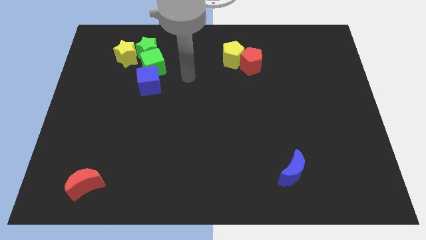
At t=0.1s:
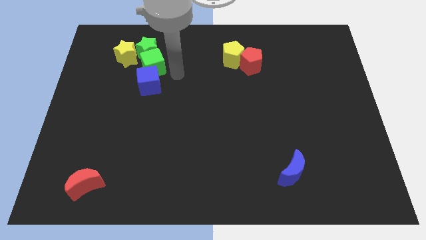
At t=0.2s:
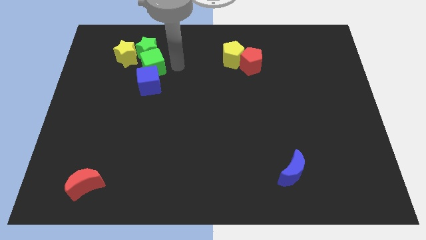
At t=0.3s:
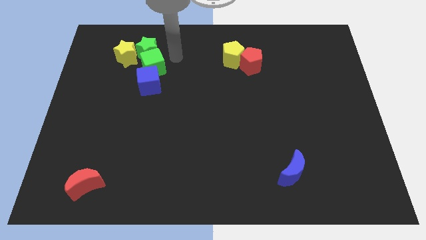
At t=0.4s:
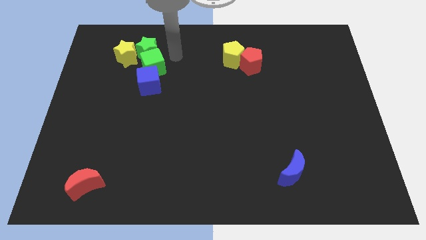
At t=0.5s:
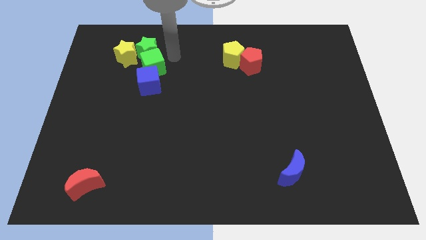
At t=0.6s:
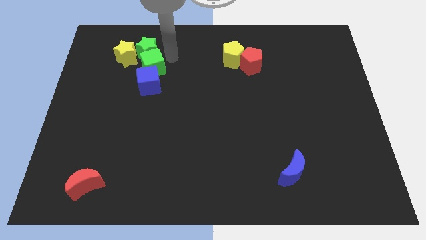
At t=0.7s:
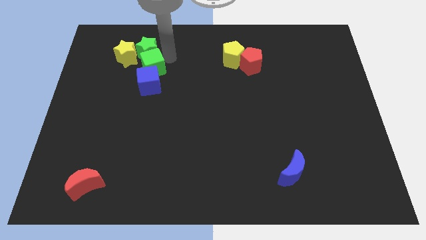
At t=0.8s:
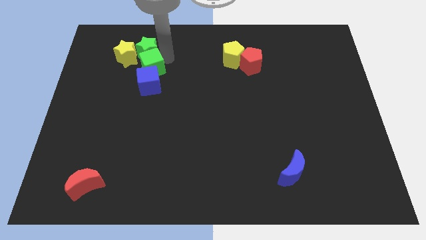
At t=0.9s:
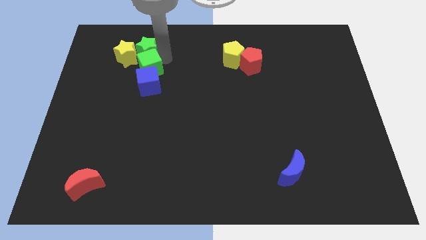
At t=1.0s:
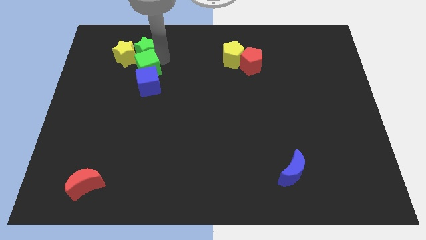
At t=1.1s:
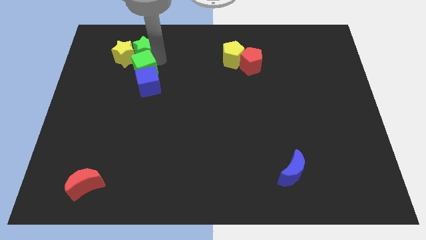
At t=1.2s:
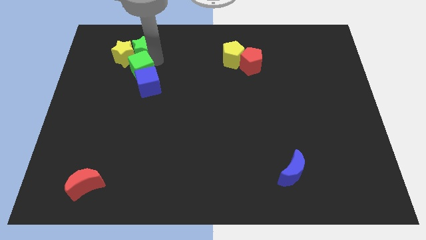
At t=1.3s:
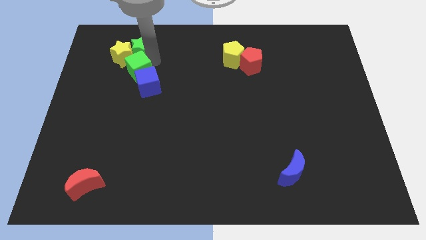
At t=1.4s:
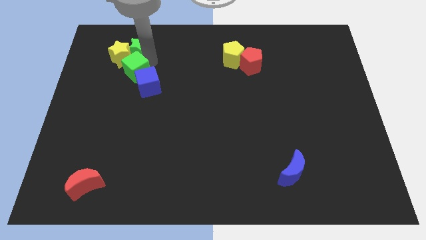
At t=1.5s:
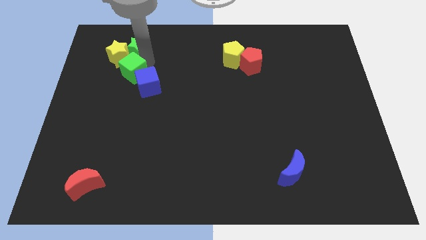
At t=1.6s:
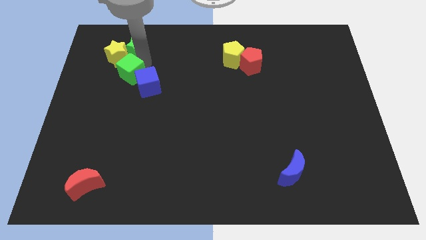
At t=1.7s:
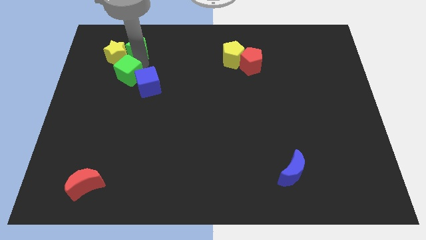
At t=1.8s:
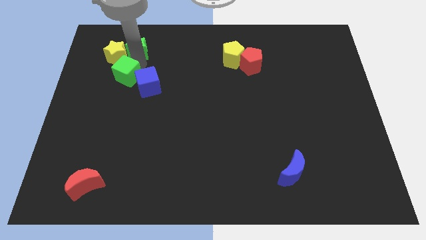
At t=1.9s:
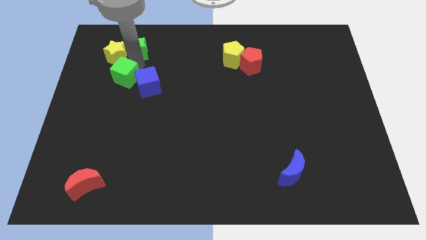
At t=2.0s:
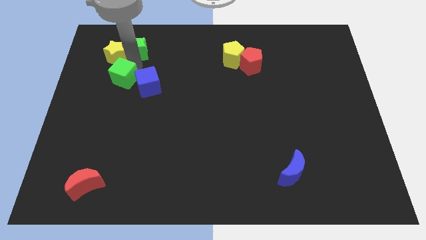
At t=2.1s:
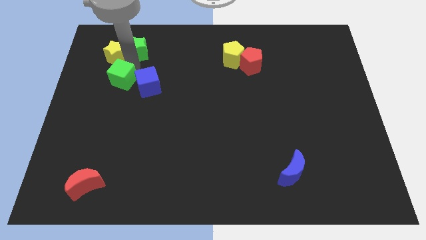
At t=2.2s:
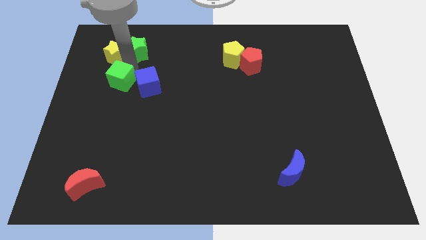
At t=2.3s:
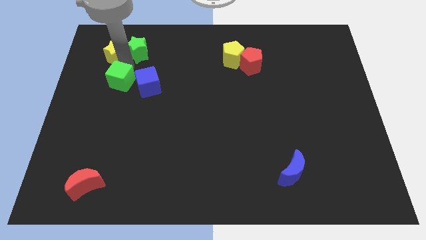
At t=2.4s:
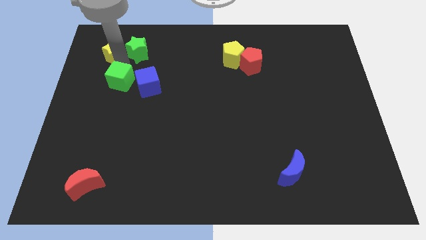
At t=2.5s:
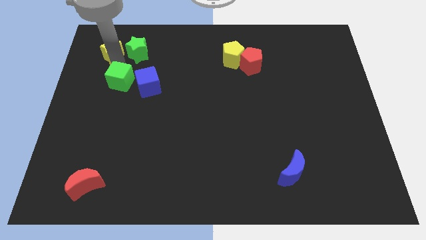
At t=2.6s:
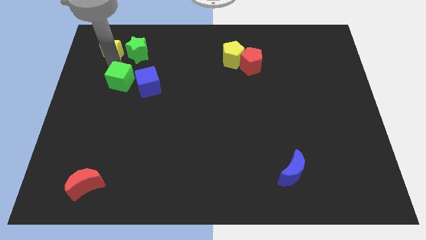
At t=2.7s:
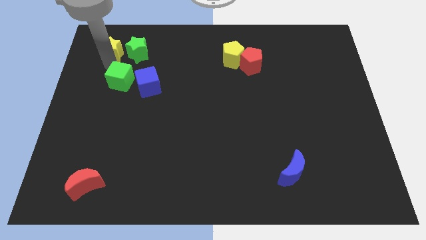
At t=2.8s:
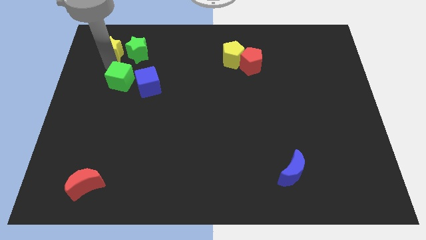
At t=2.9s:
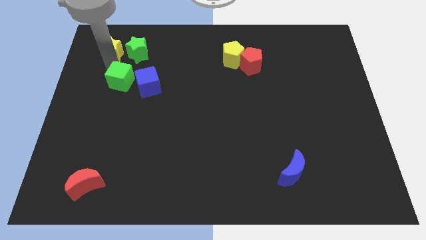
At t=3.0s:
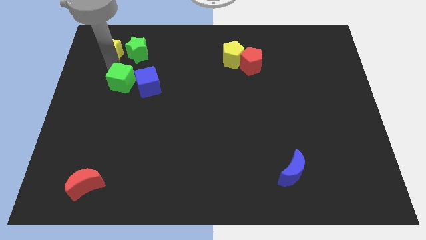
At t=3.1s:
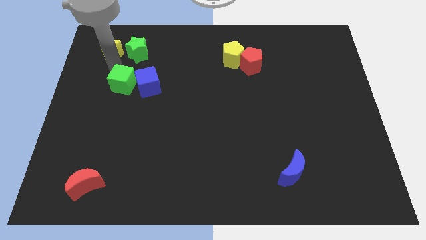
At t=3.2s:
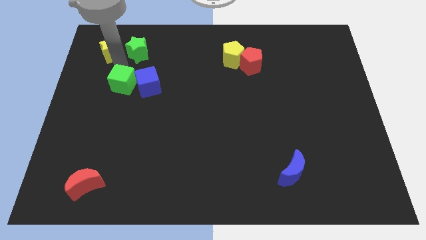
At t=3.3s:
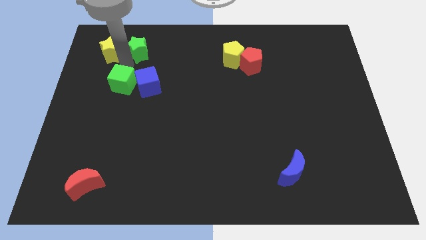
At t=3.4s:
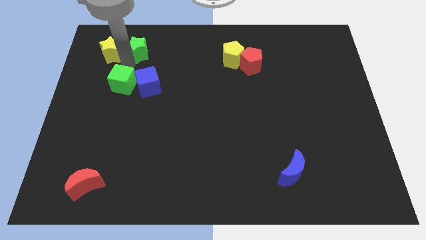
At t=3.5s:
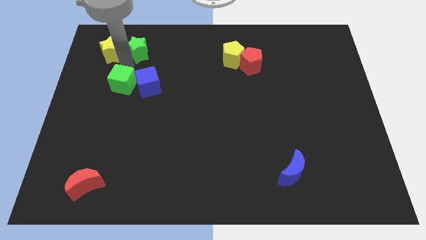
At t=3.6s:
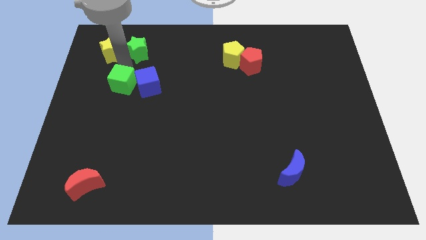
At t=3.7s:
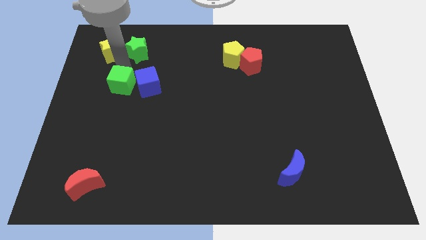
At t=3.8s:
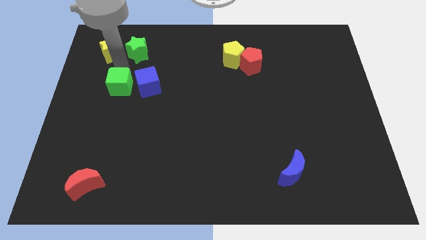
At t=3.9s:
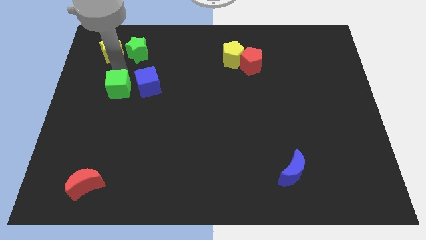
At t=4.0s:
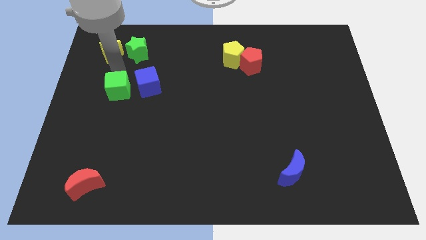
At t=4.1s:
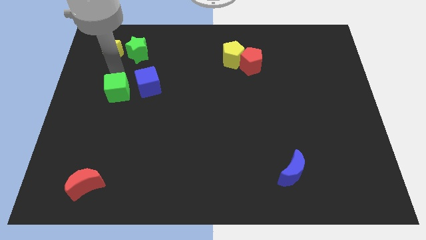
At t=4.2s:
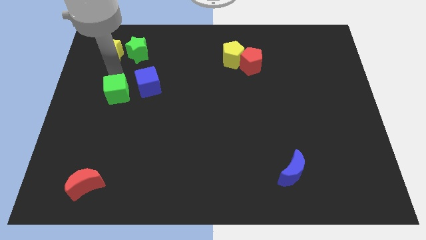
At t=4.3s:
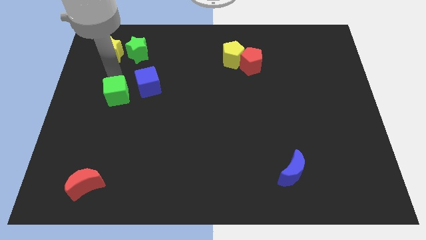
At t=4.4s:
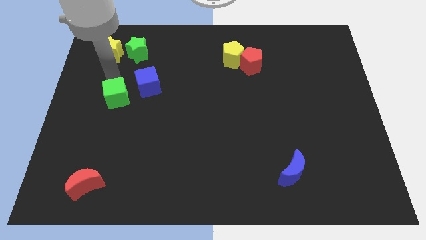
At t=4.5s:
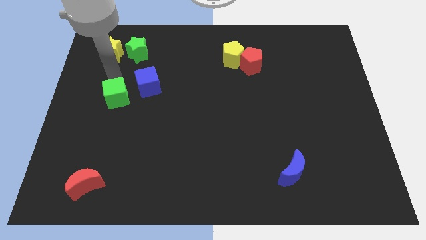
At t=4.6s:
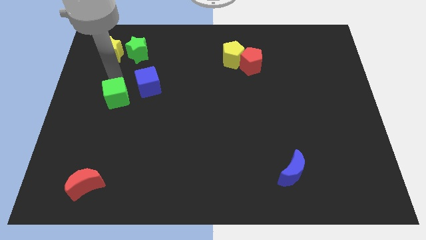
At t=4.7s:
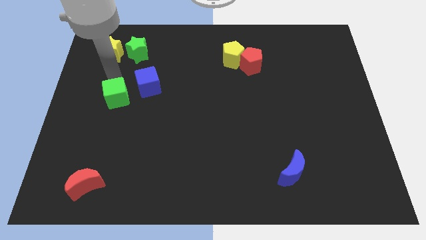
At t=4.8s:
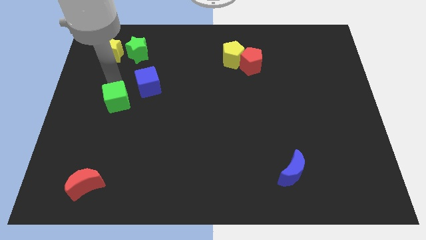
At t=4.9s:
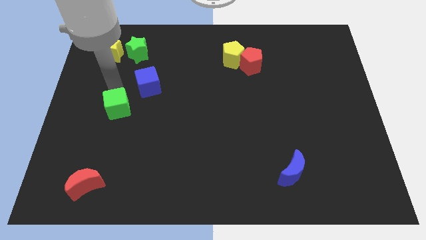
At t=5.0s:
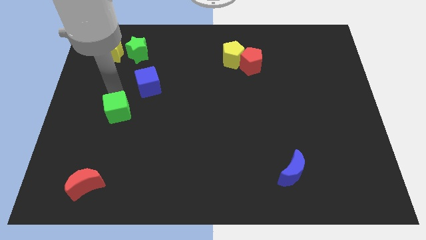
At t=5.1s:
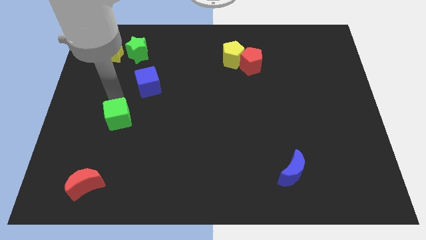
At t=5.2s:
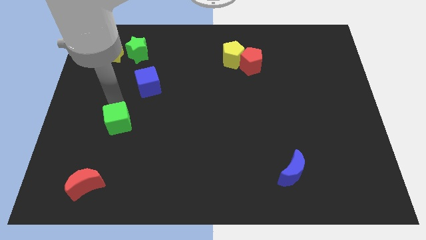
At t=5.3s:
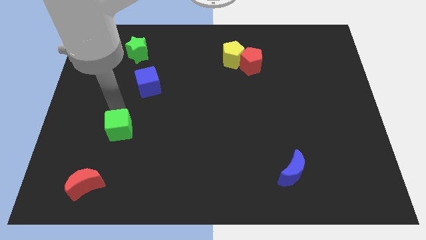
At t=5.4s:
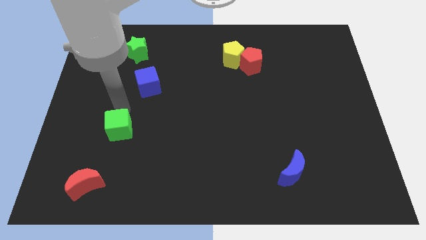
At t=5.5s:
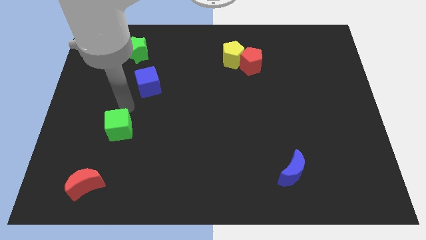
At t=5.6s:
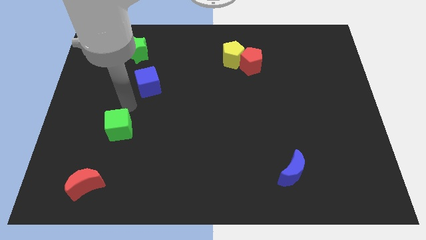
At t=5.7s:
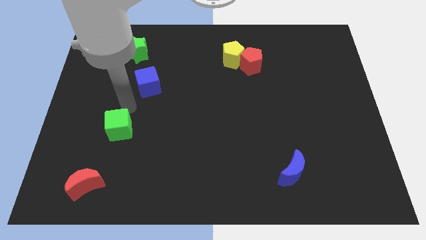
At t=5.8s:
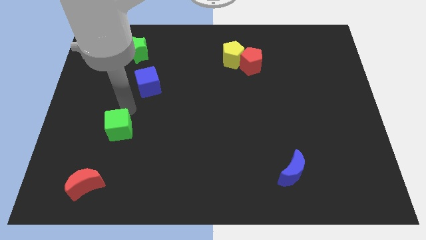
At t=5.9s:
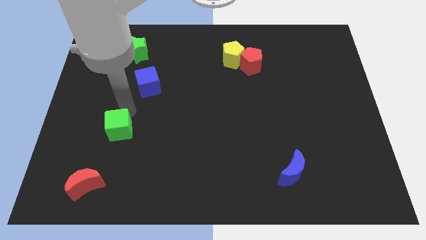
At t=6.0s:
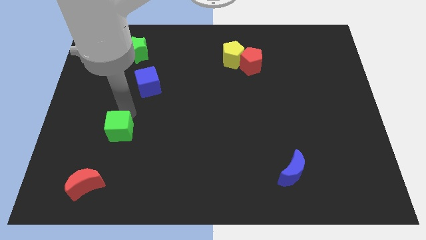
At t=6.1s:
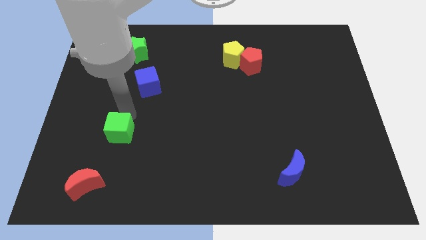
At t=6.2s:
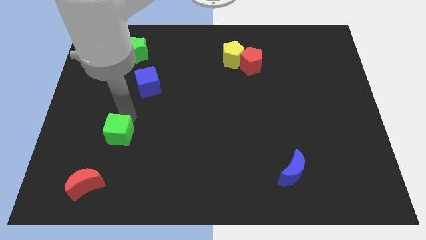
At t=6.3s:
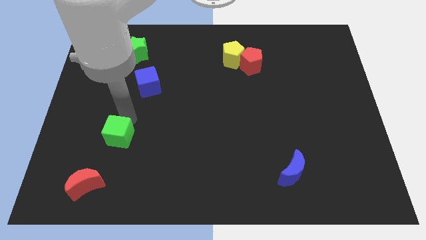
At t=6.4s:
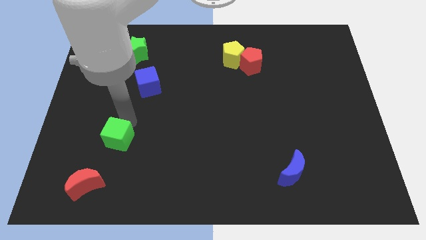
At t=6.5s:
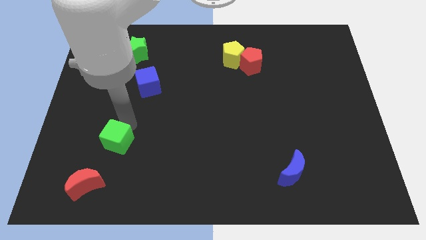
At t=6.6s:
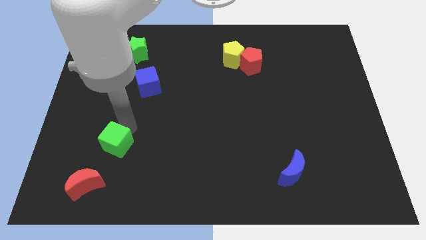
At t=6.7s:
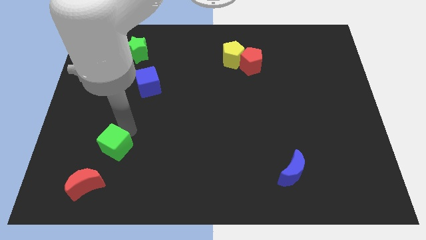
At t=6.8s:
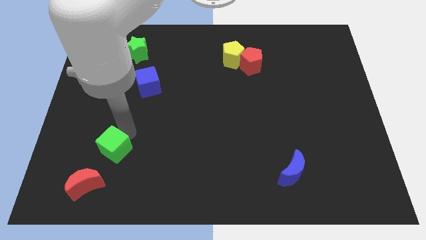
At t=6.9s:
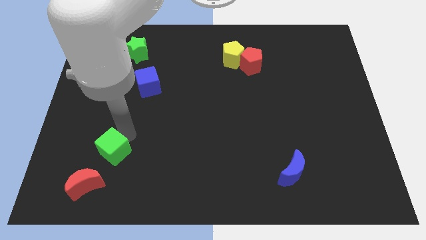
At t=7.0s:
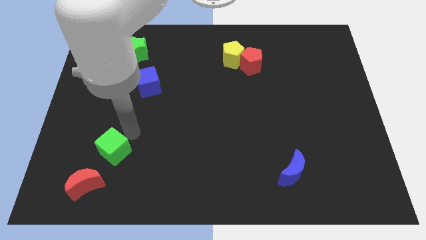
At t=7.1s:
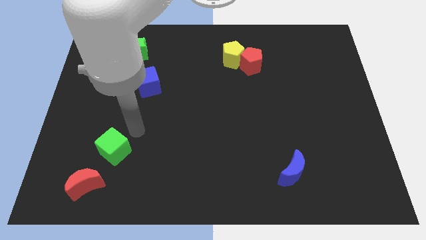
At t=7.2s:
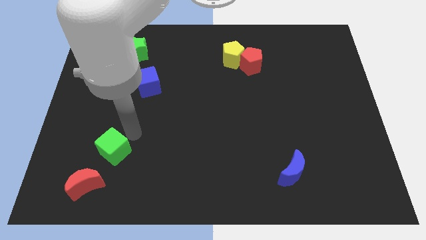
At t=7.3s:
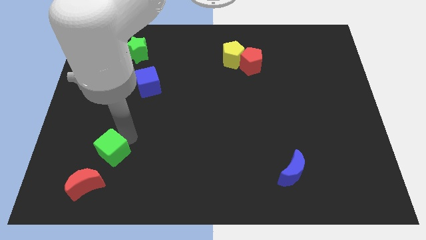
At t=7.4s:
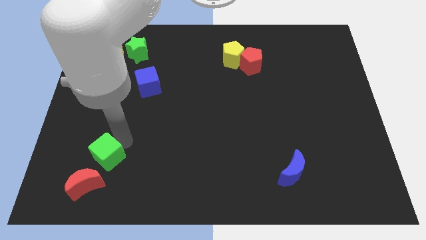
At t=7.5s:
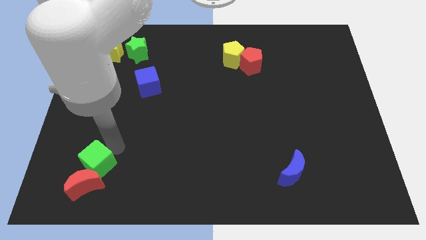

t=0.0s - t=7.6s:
slide the green cube towards the red moon
